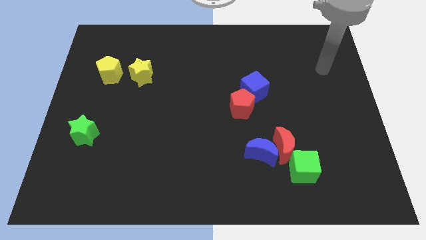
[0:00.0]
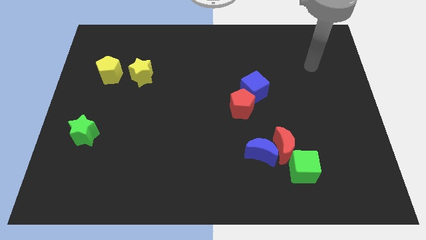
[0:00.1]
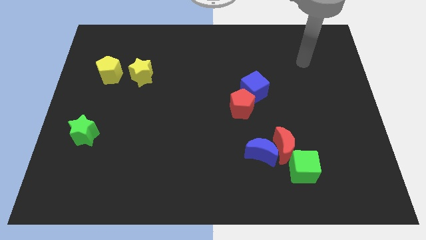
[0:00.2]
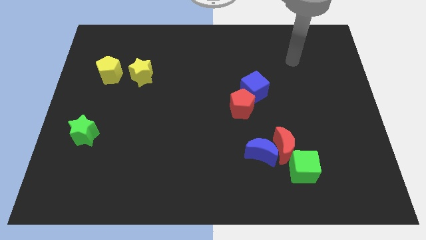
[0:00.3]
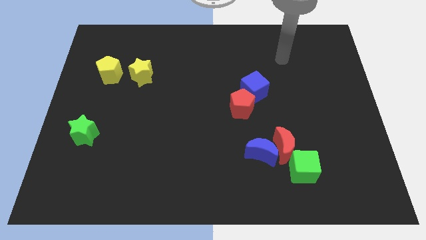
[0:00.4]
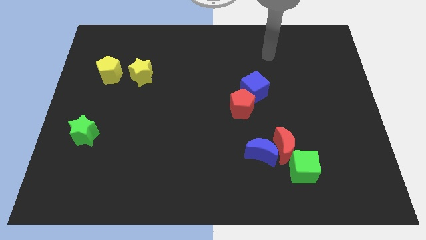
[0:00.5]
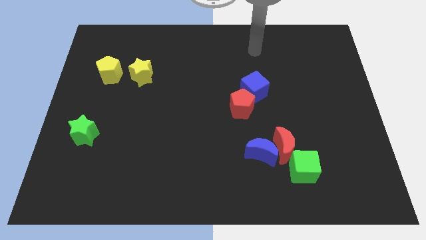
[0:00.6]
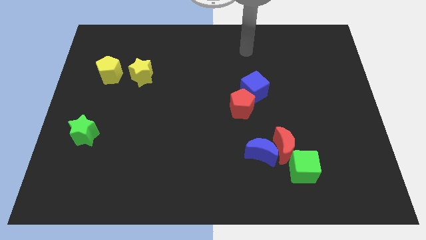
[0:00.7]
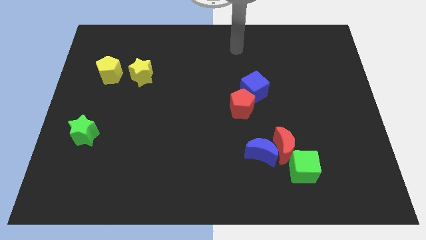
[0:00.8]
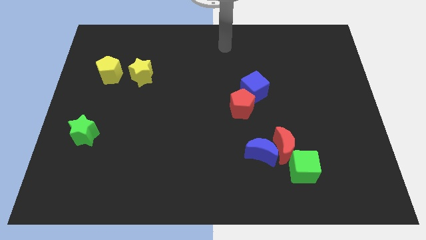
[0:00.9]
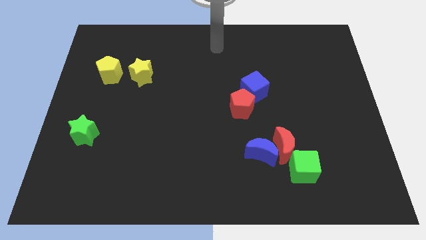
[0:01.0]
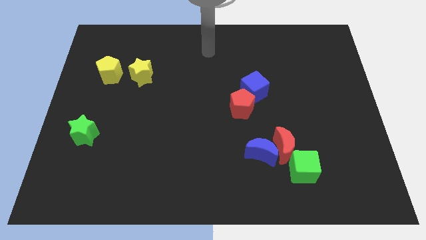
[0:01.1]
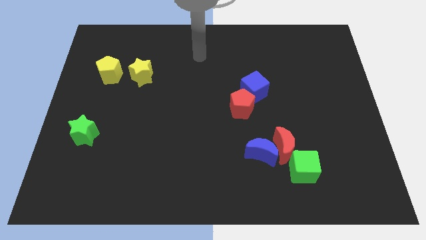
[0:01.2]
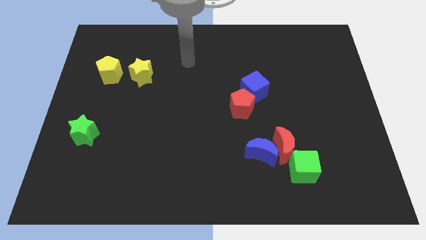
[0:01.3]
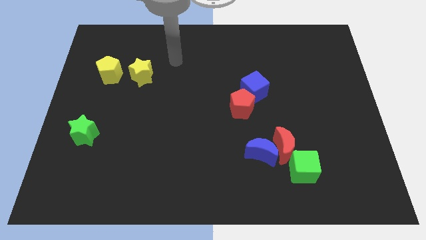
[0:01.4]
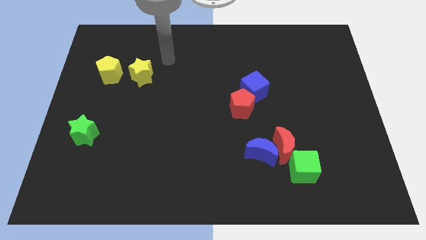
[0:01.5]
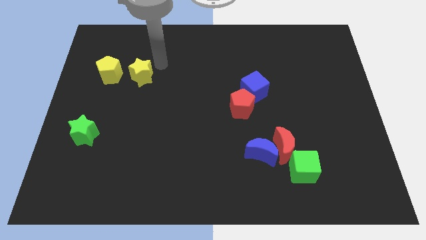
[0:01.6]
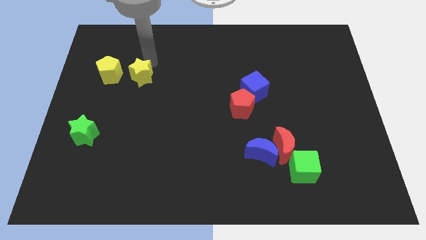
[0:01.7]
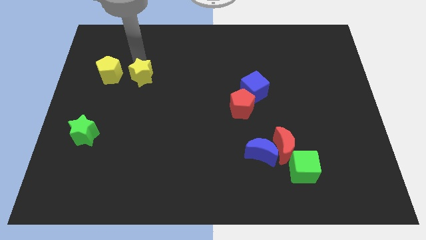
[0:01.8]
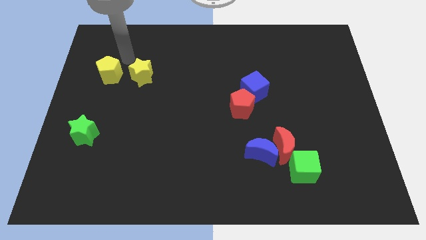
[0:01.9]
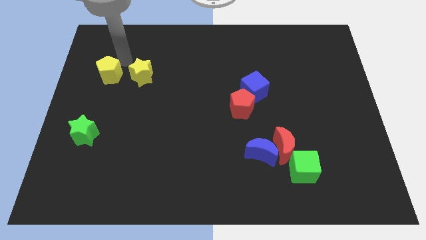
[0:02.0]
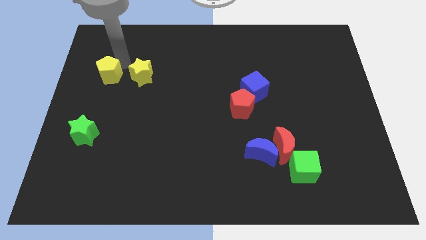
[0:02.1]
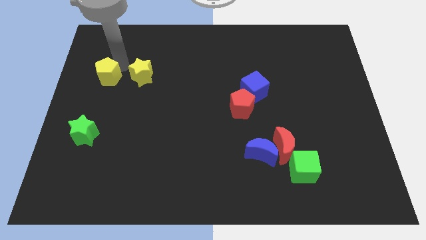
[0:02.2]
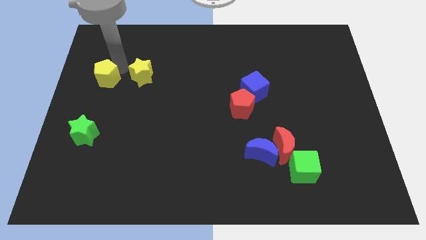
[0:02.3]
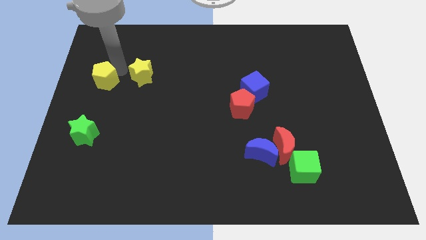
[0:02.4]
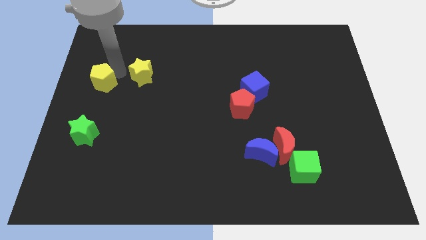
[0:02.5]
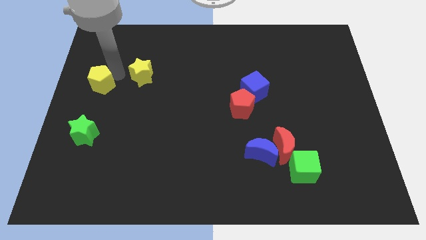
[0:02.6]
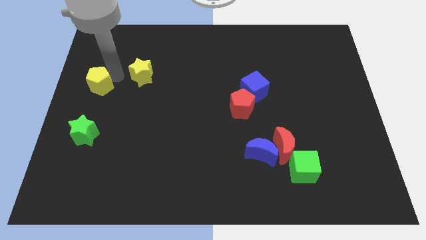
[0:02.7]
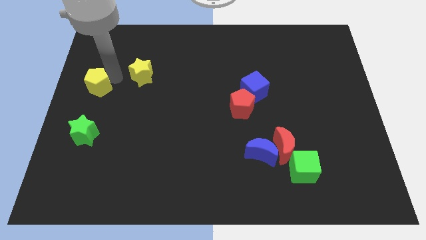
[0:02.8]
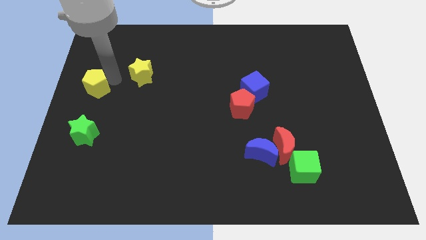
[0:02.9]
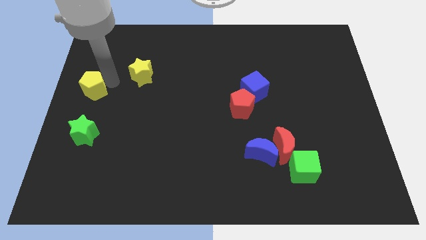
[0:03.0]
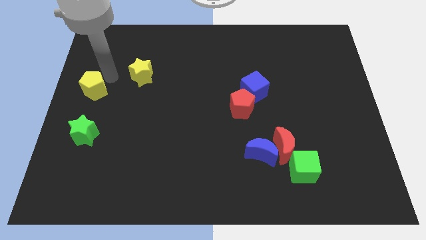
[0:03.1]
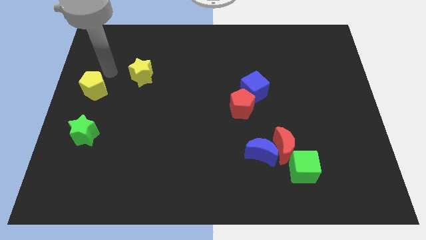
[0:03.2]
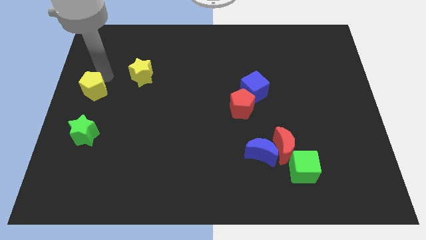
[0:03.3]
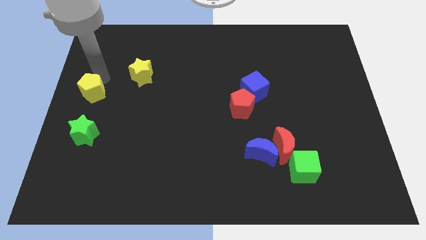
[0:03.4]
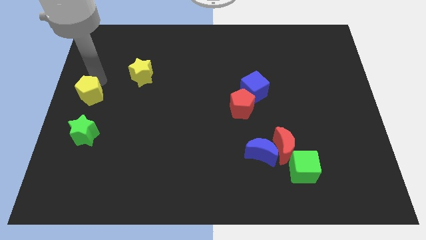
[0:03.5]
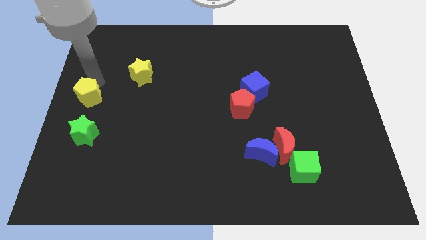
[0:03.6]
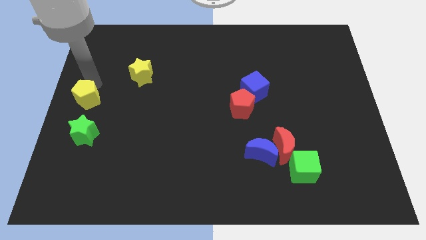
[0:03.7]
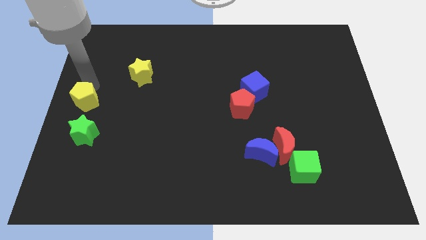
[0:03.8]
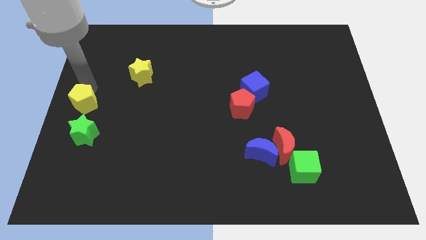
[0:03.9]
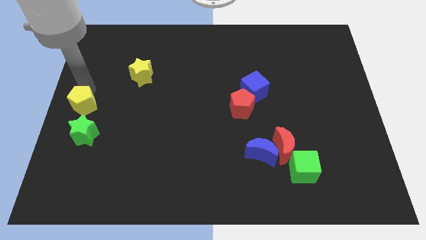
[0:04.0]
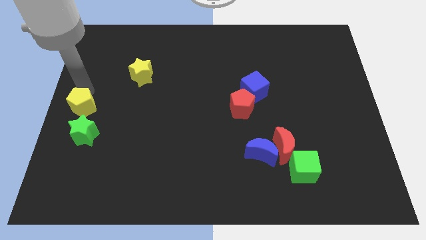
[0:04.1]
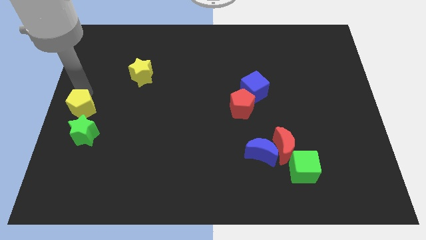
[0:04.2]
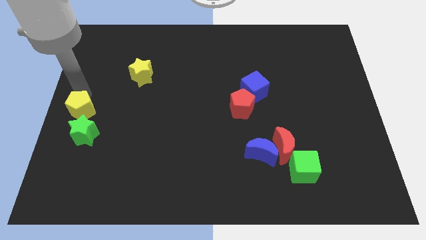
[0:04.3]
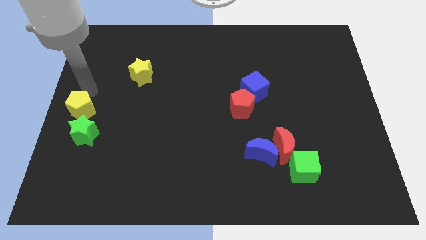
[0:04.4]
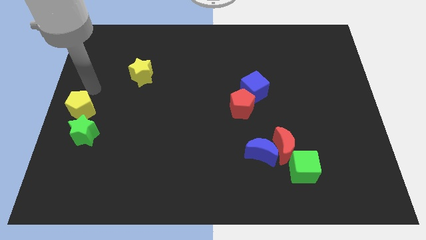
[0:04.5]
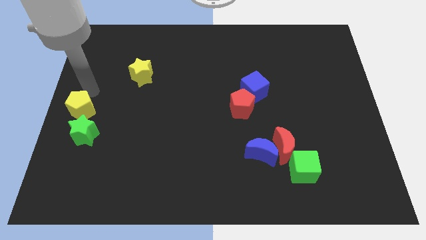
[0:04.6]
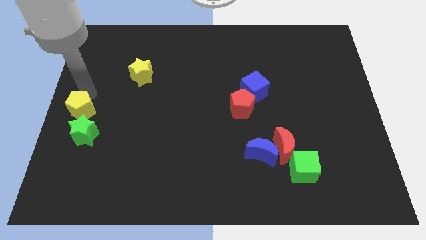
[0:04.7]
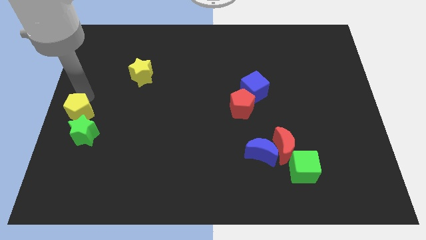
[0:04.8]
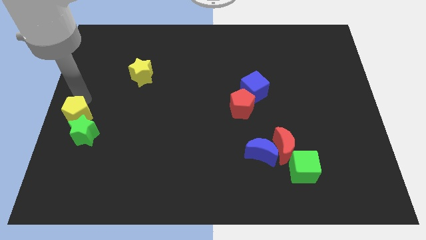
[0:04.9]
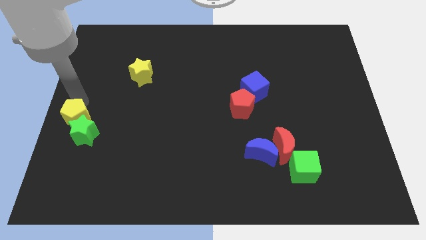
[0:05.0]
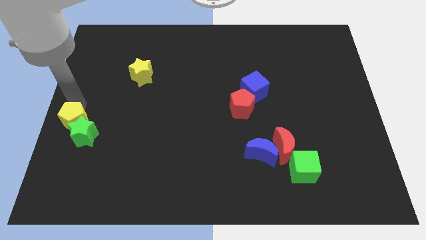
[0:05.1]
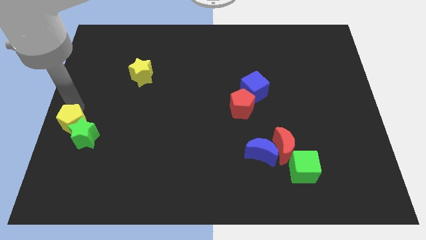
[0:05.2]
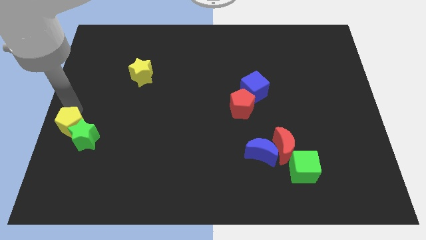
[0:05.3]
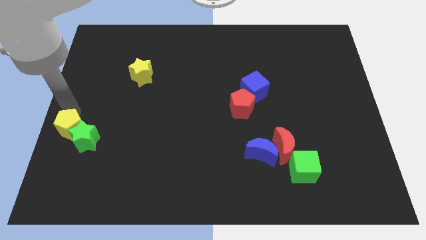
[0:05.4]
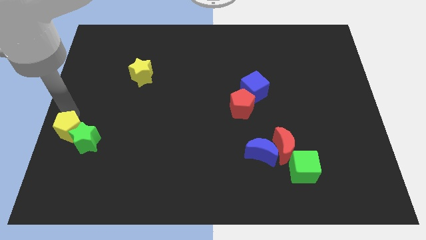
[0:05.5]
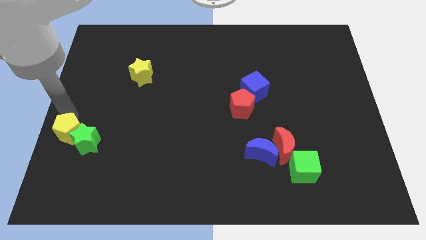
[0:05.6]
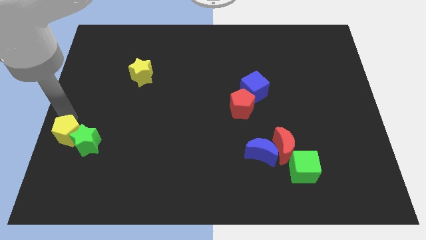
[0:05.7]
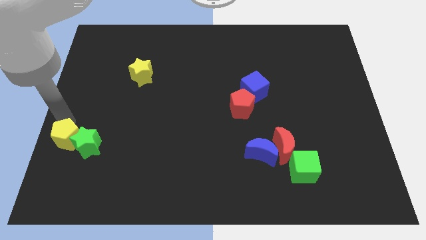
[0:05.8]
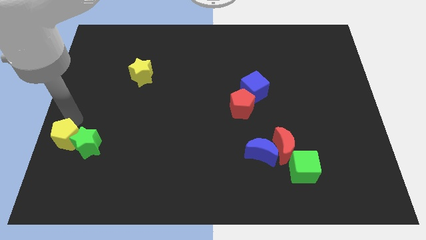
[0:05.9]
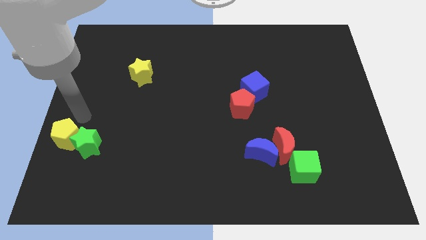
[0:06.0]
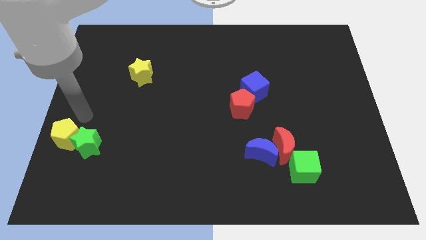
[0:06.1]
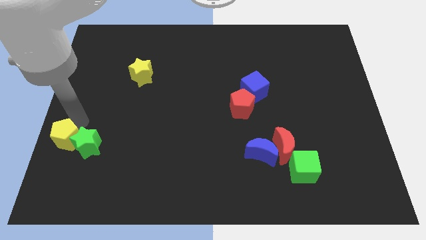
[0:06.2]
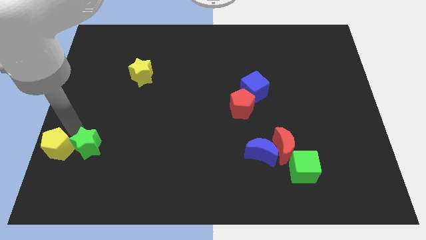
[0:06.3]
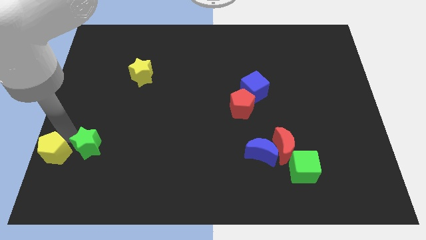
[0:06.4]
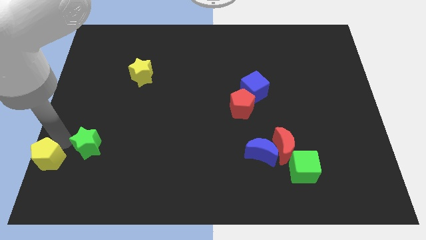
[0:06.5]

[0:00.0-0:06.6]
push the yellow pentagon to the bottom left
